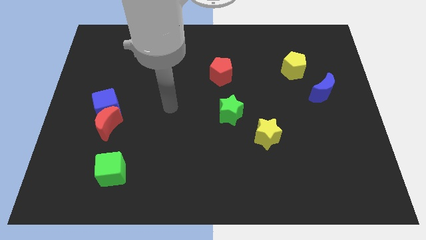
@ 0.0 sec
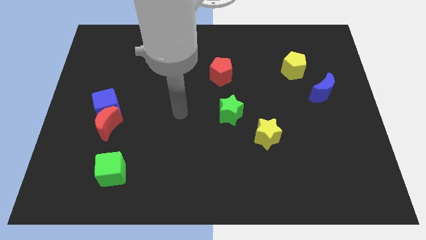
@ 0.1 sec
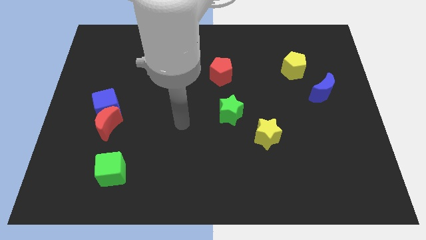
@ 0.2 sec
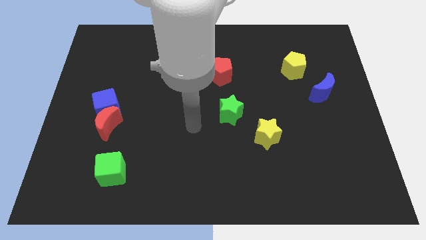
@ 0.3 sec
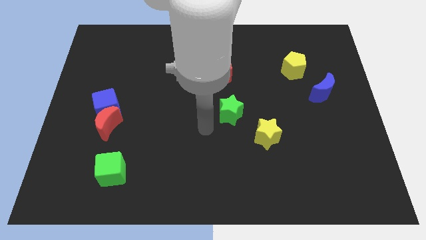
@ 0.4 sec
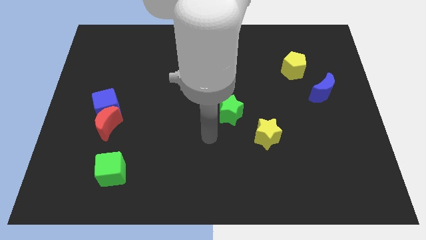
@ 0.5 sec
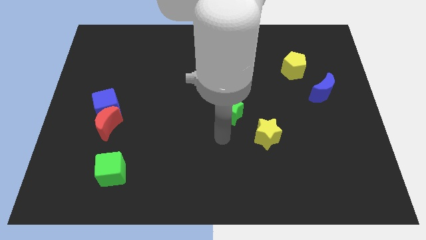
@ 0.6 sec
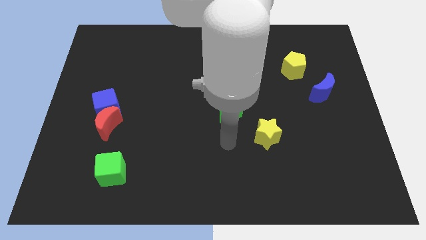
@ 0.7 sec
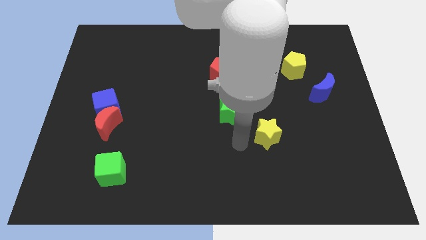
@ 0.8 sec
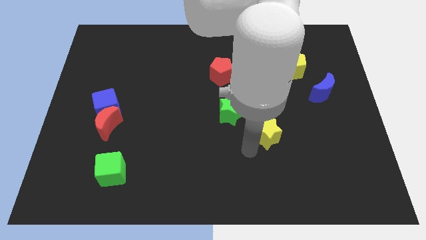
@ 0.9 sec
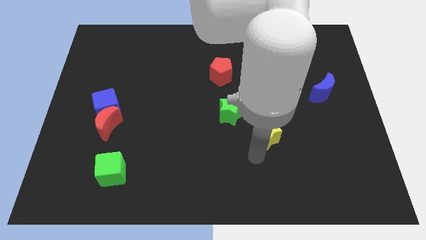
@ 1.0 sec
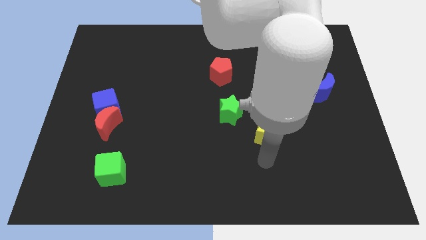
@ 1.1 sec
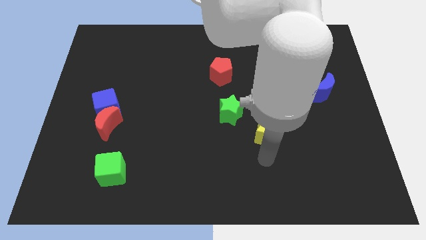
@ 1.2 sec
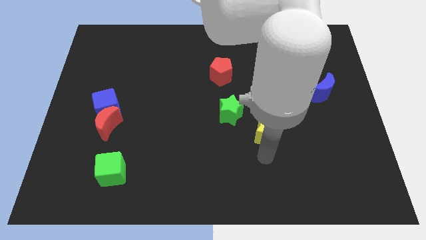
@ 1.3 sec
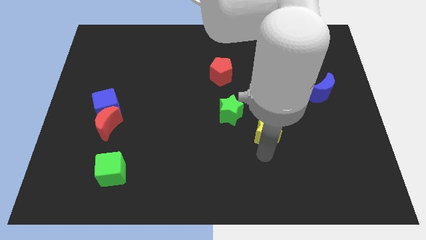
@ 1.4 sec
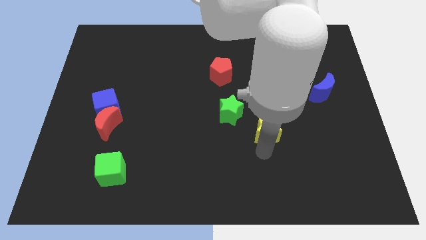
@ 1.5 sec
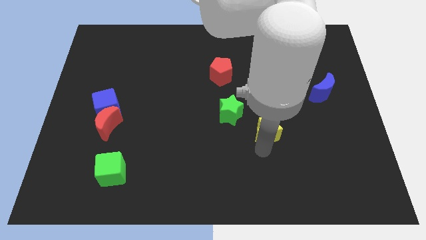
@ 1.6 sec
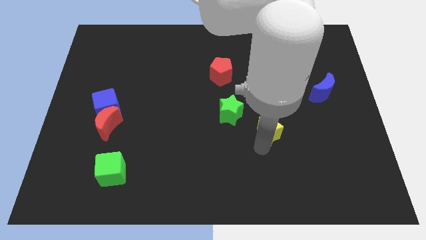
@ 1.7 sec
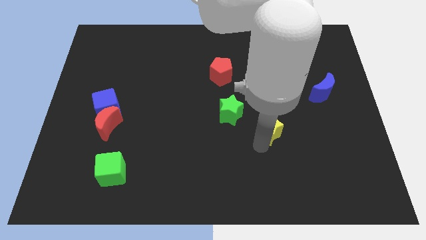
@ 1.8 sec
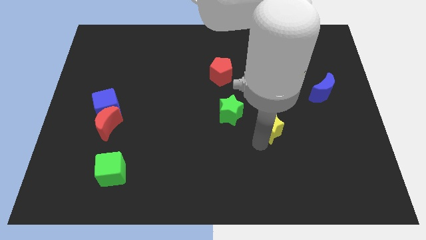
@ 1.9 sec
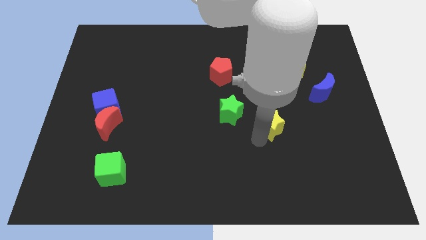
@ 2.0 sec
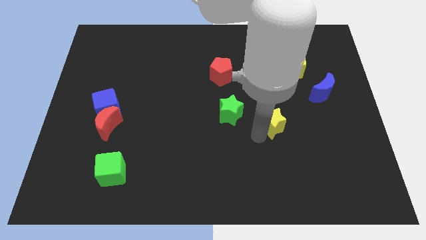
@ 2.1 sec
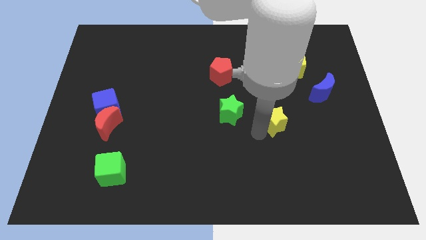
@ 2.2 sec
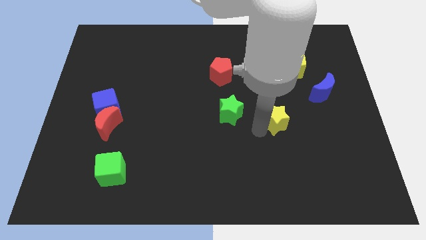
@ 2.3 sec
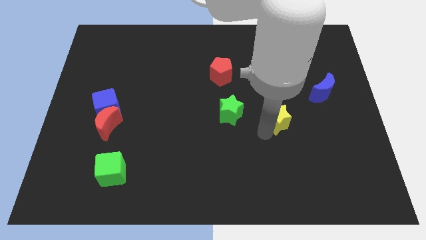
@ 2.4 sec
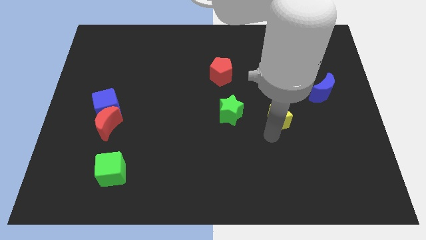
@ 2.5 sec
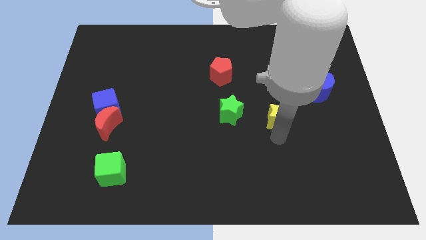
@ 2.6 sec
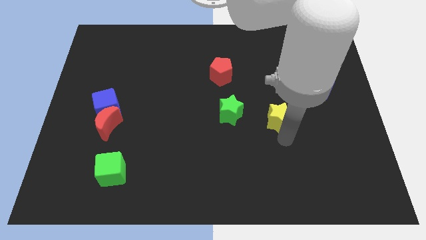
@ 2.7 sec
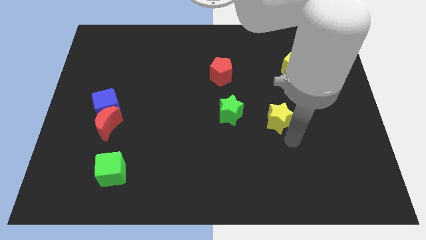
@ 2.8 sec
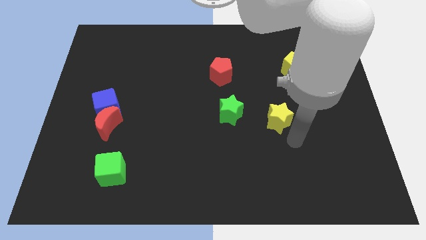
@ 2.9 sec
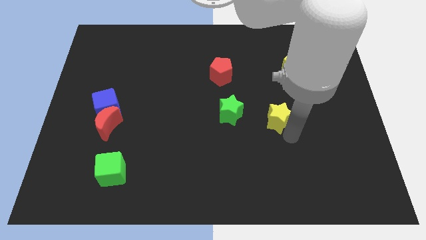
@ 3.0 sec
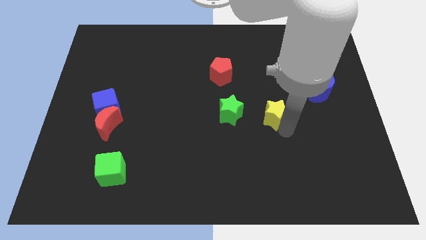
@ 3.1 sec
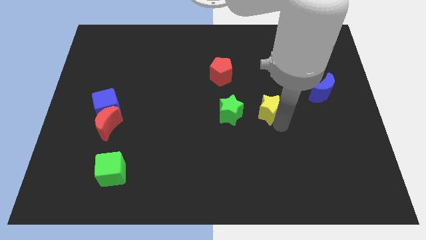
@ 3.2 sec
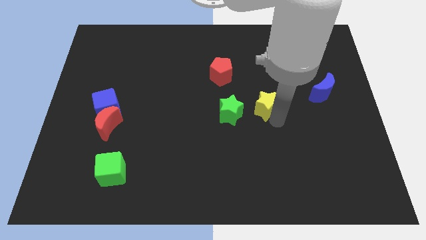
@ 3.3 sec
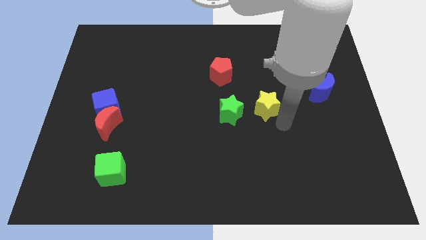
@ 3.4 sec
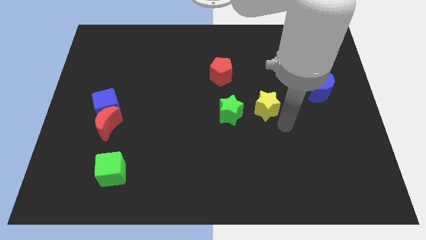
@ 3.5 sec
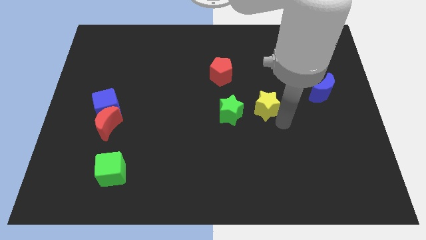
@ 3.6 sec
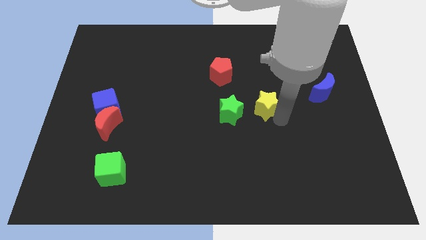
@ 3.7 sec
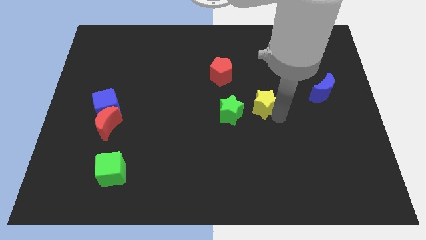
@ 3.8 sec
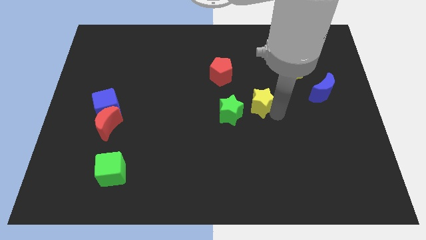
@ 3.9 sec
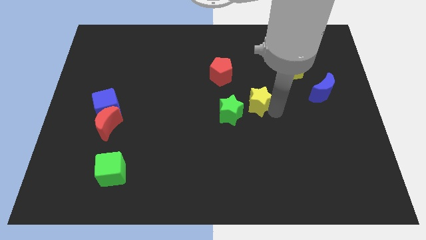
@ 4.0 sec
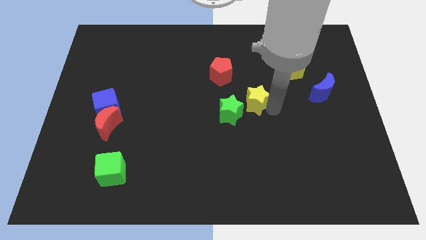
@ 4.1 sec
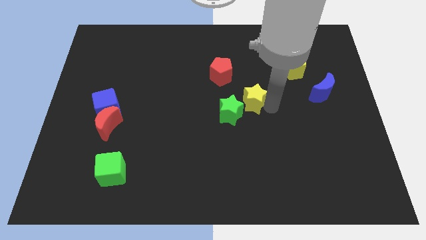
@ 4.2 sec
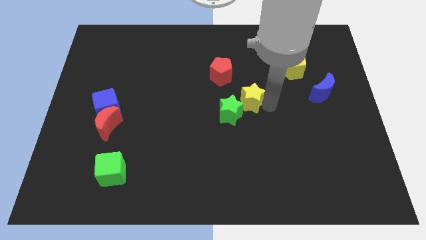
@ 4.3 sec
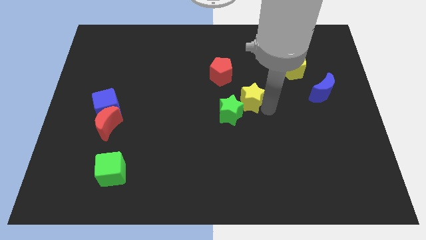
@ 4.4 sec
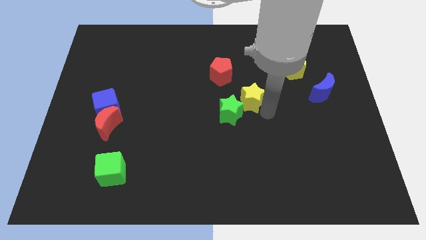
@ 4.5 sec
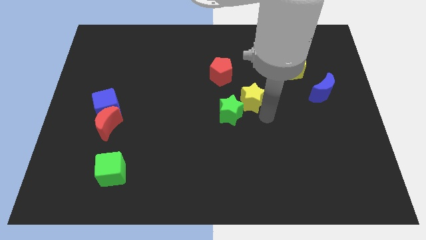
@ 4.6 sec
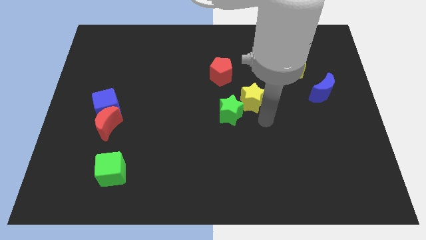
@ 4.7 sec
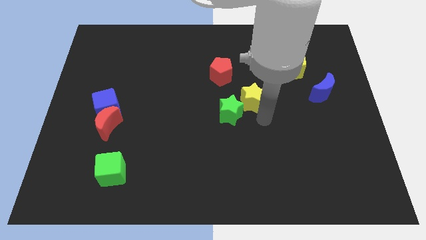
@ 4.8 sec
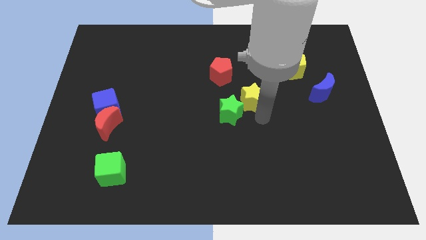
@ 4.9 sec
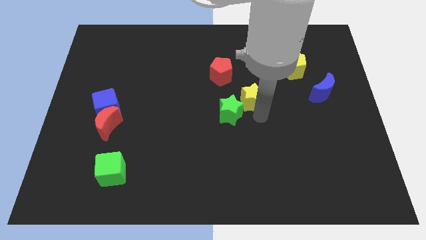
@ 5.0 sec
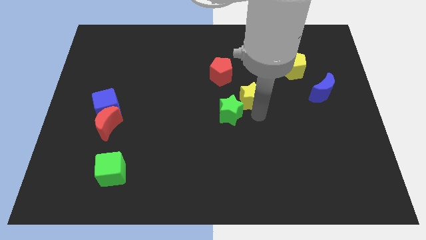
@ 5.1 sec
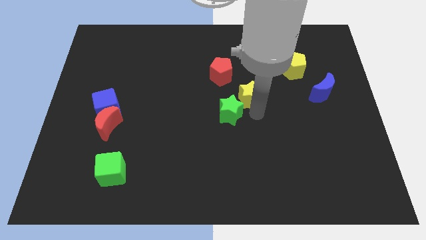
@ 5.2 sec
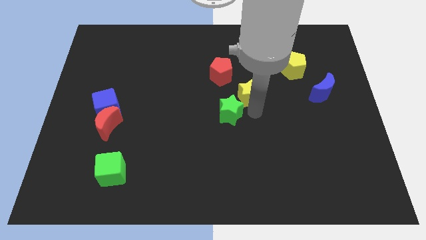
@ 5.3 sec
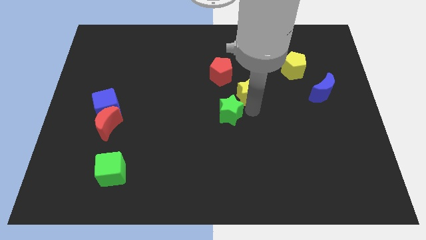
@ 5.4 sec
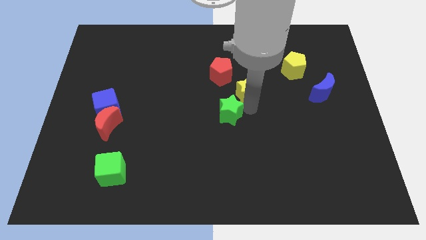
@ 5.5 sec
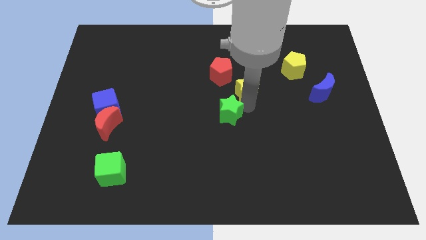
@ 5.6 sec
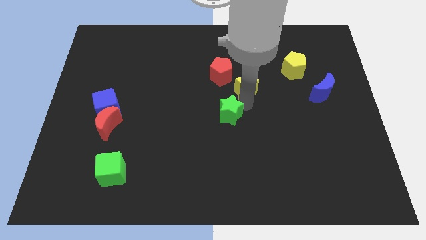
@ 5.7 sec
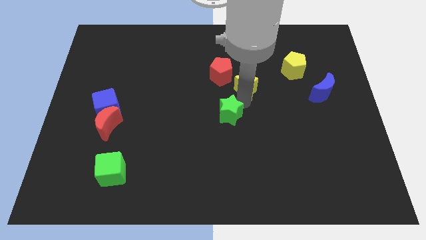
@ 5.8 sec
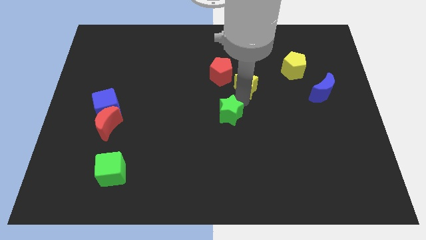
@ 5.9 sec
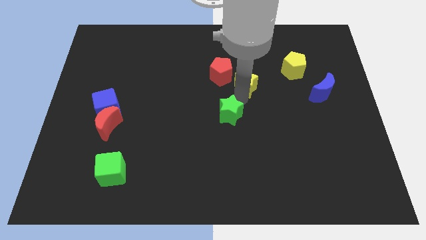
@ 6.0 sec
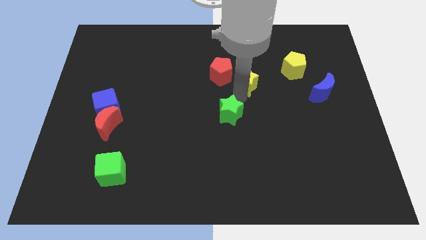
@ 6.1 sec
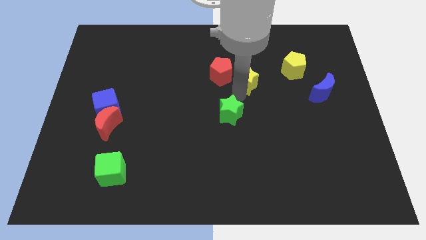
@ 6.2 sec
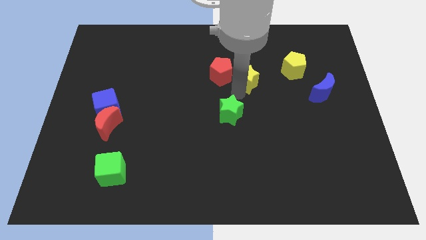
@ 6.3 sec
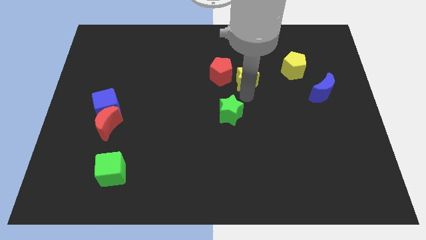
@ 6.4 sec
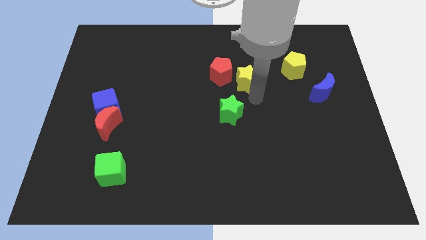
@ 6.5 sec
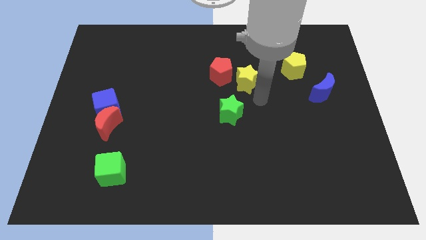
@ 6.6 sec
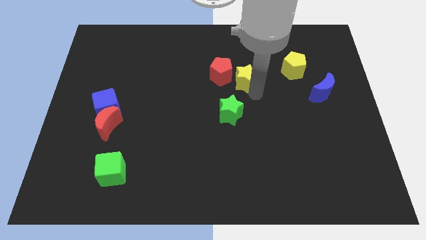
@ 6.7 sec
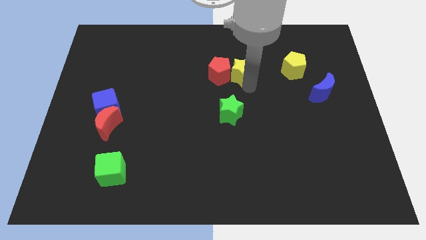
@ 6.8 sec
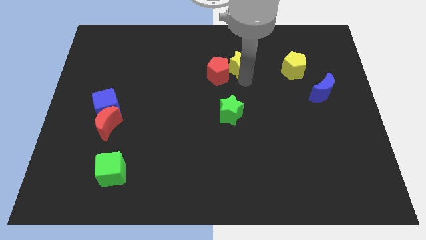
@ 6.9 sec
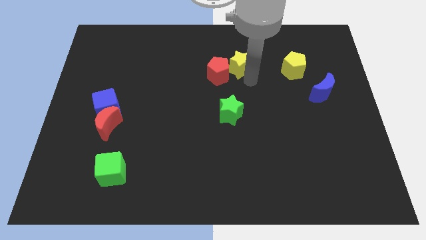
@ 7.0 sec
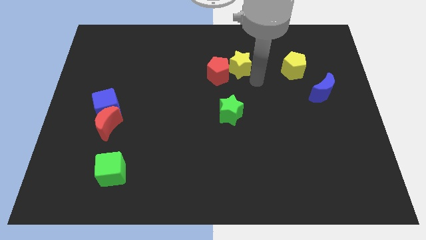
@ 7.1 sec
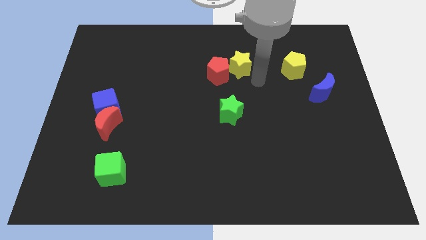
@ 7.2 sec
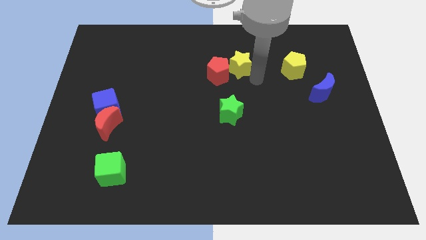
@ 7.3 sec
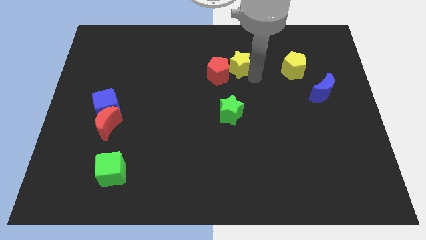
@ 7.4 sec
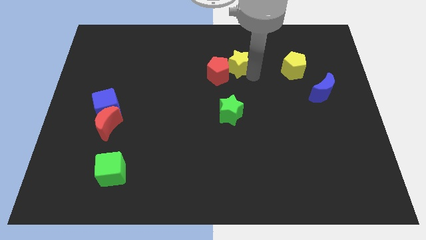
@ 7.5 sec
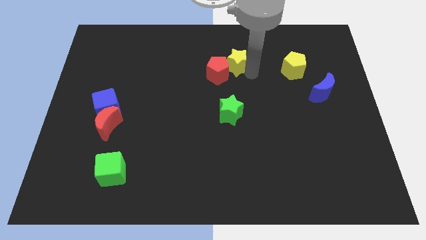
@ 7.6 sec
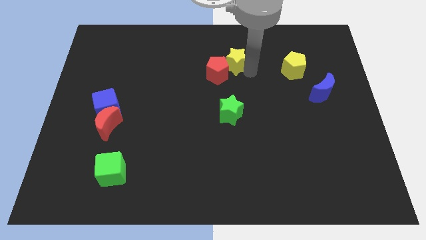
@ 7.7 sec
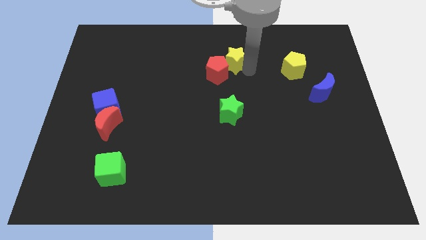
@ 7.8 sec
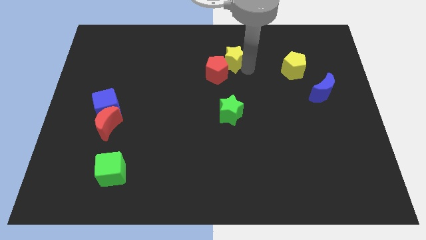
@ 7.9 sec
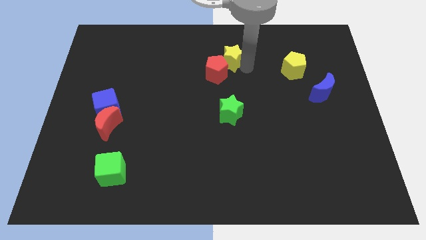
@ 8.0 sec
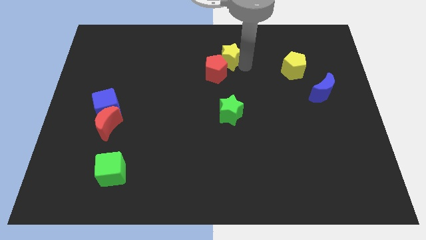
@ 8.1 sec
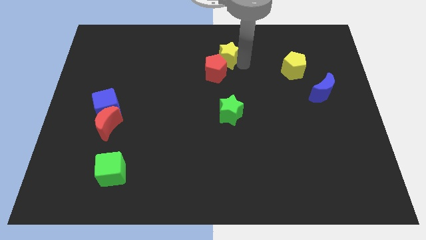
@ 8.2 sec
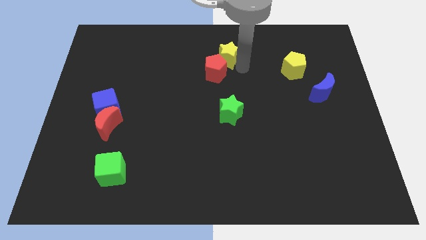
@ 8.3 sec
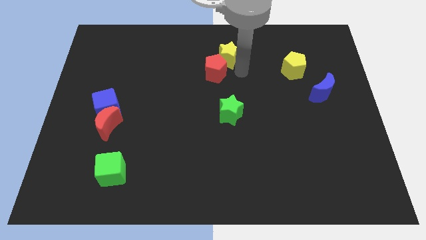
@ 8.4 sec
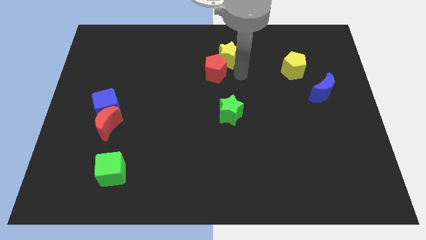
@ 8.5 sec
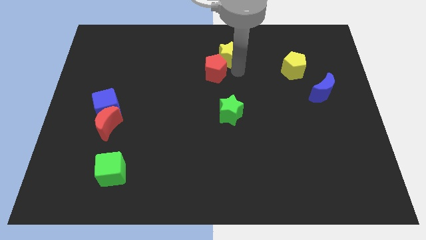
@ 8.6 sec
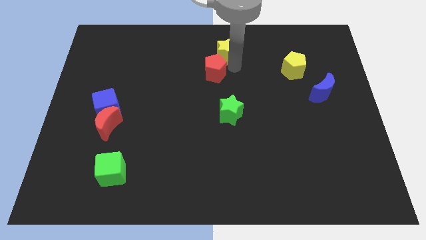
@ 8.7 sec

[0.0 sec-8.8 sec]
push the yellow star to the top
